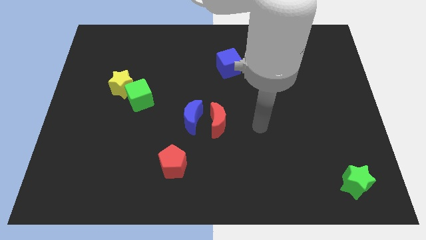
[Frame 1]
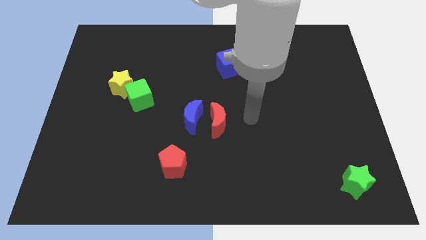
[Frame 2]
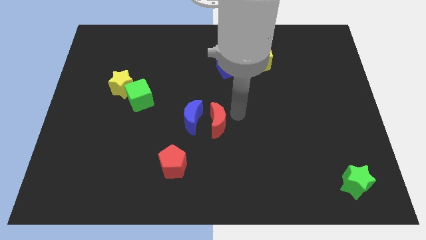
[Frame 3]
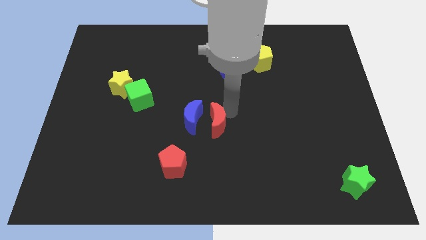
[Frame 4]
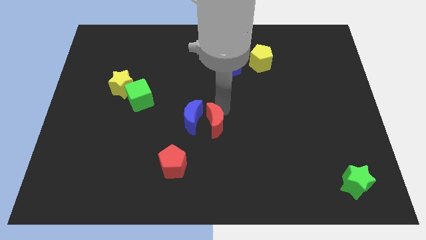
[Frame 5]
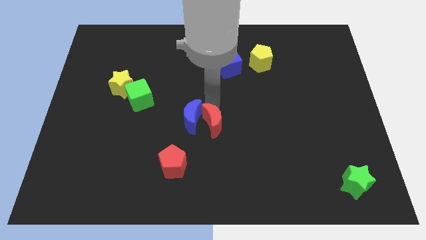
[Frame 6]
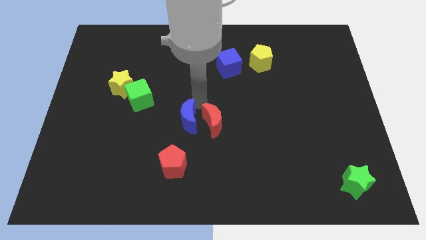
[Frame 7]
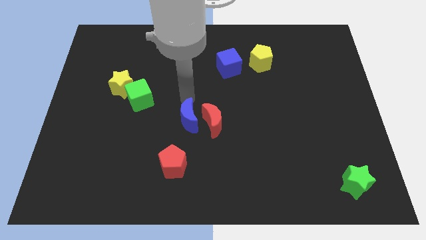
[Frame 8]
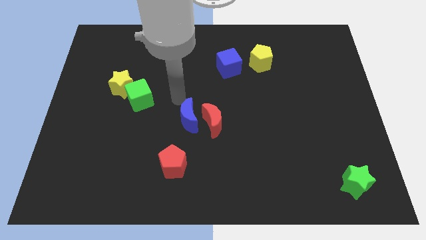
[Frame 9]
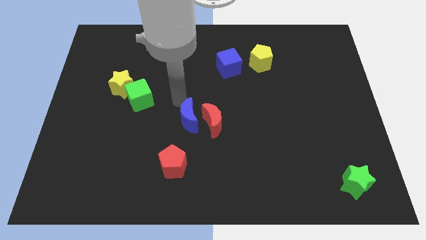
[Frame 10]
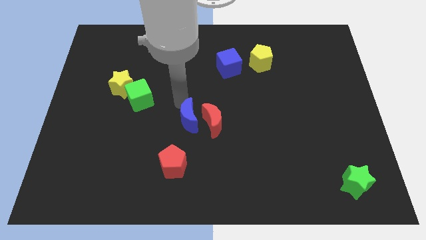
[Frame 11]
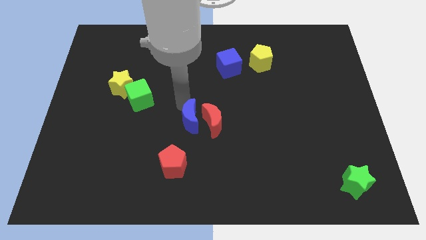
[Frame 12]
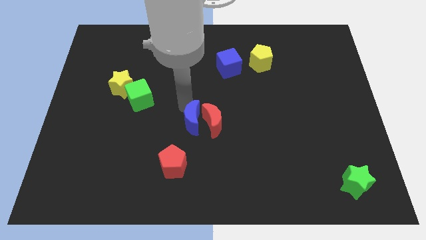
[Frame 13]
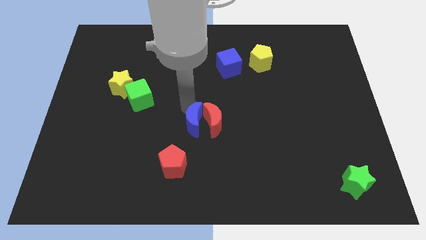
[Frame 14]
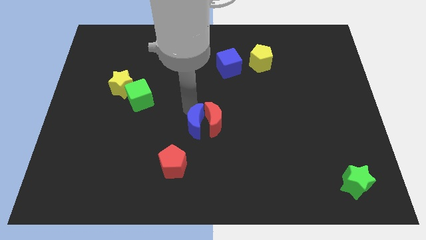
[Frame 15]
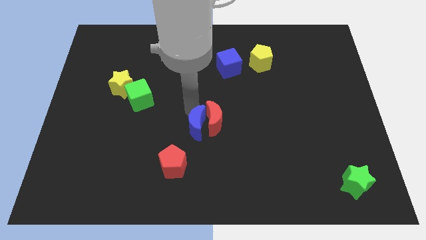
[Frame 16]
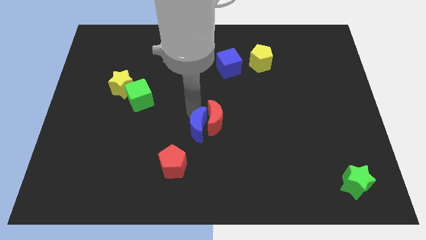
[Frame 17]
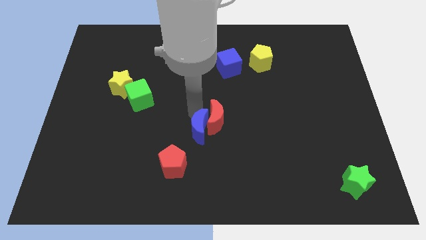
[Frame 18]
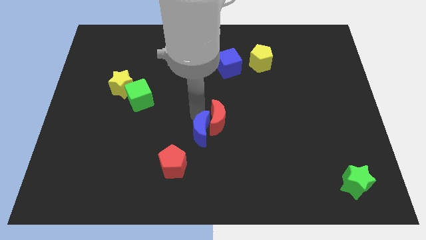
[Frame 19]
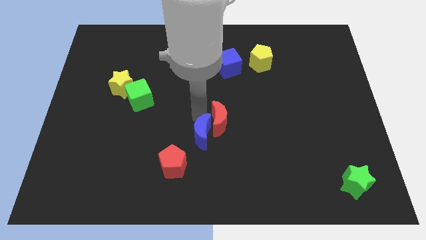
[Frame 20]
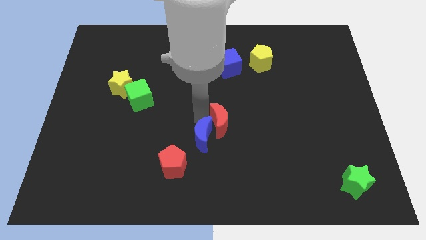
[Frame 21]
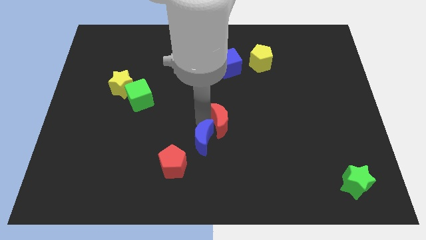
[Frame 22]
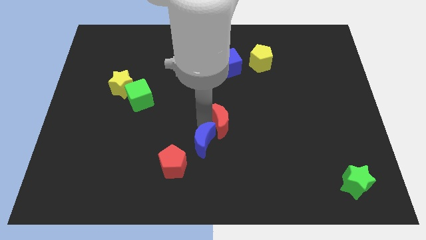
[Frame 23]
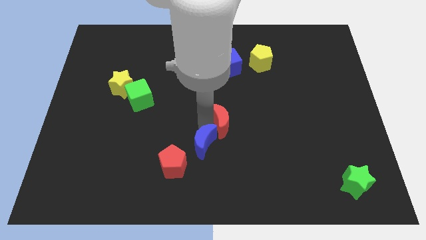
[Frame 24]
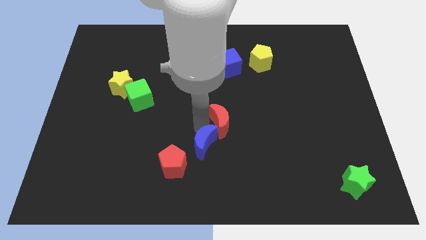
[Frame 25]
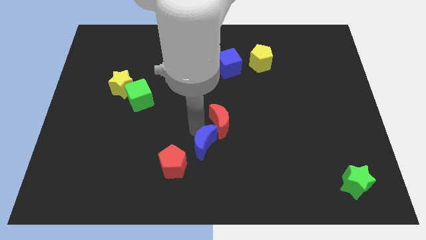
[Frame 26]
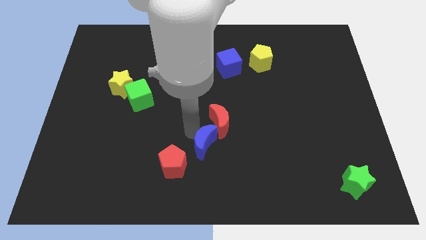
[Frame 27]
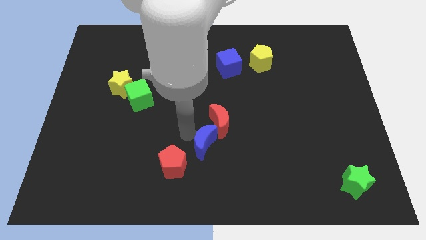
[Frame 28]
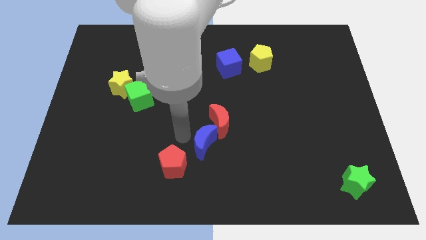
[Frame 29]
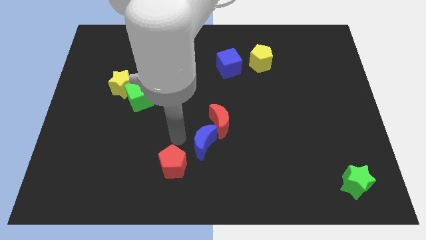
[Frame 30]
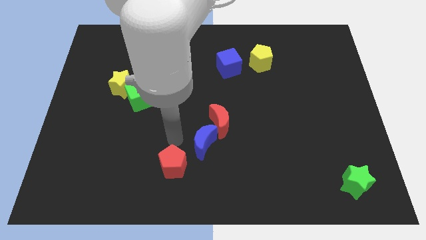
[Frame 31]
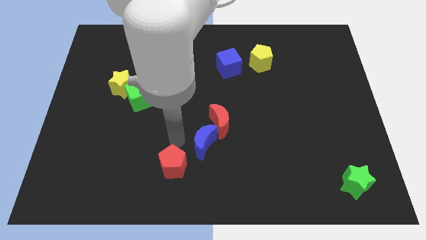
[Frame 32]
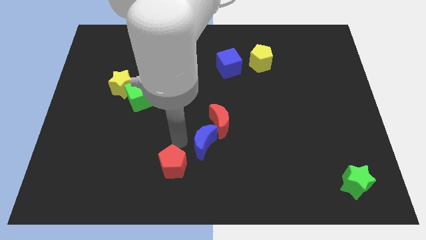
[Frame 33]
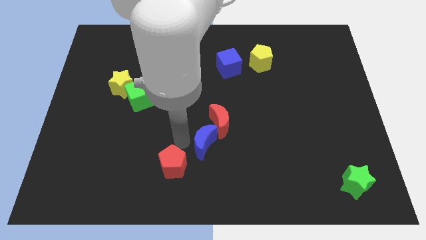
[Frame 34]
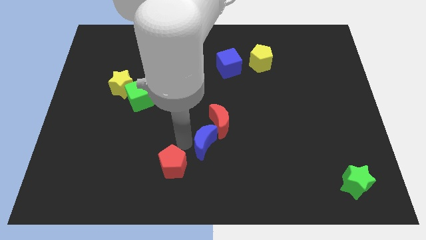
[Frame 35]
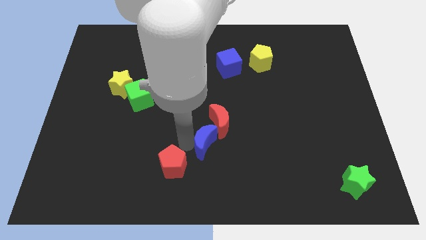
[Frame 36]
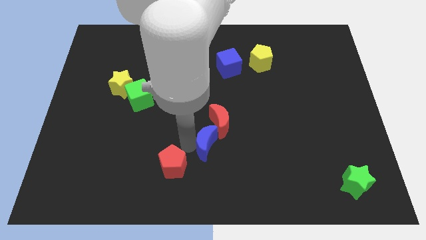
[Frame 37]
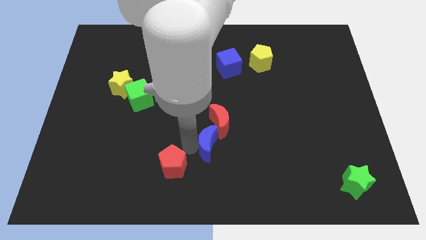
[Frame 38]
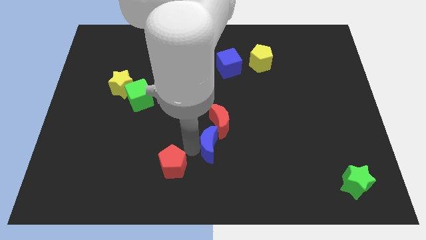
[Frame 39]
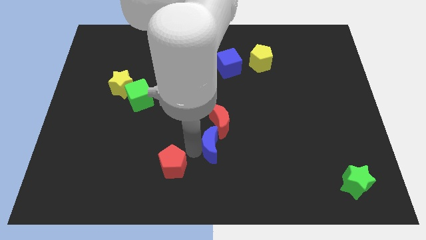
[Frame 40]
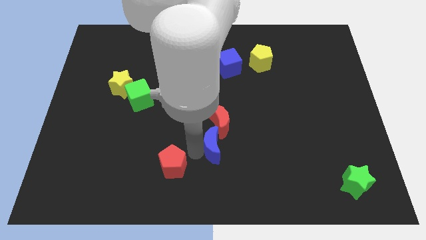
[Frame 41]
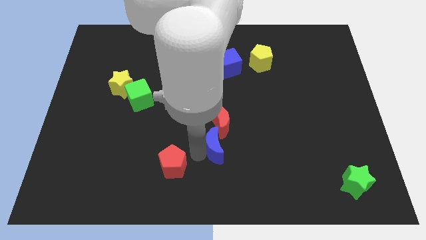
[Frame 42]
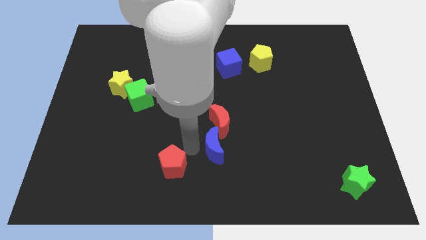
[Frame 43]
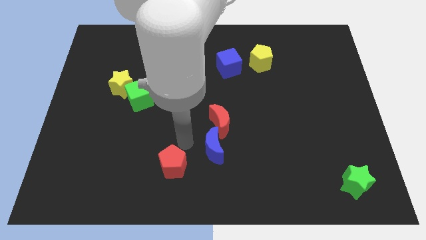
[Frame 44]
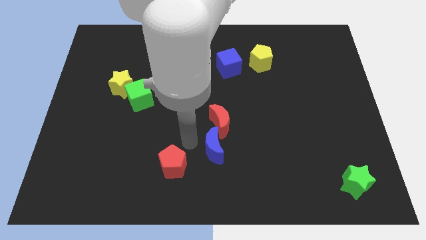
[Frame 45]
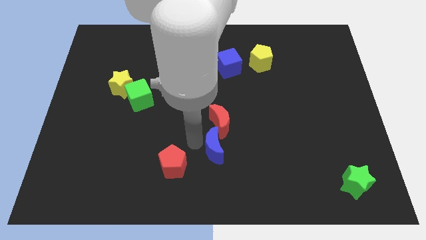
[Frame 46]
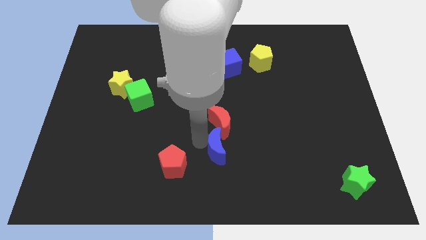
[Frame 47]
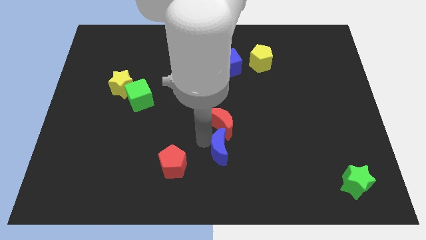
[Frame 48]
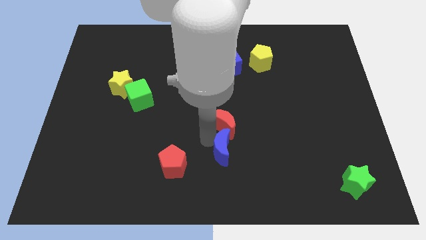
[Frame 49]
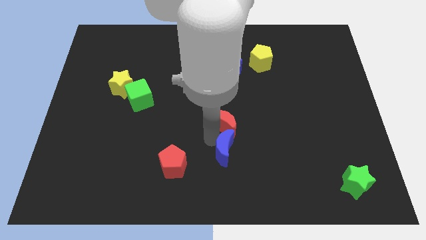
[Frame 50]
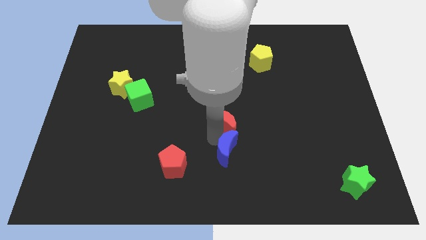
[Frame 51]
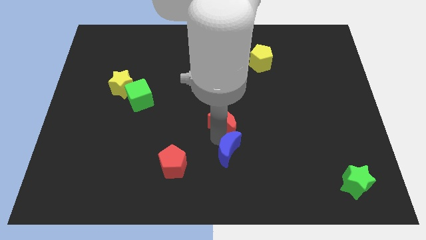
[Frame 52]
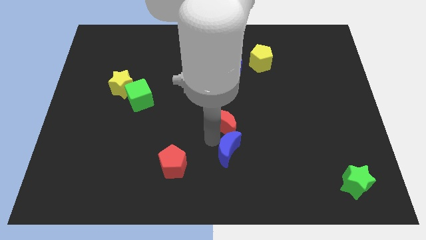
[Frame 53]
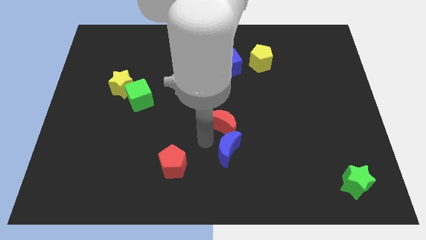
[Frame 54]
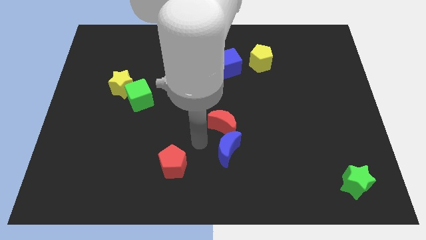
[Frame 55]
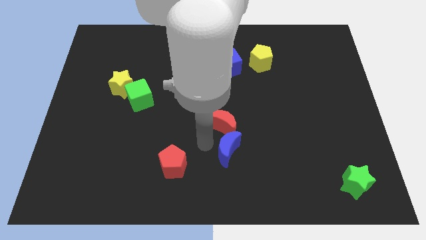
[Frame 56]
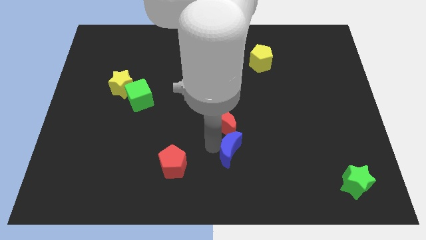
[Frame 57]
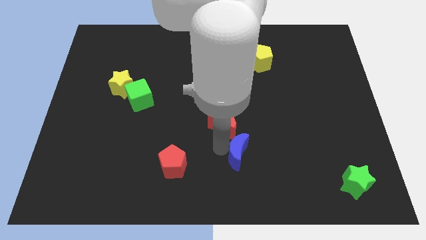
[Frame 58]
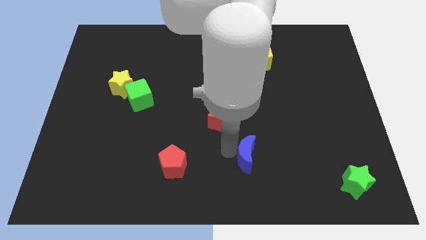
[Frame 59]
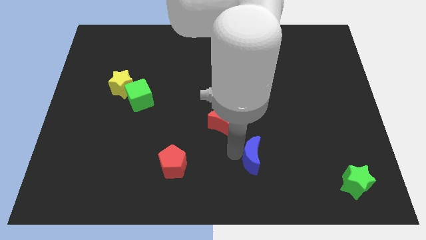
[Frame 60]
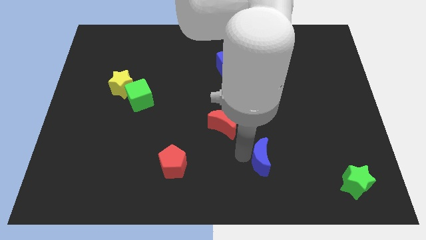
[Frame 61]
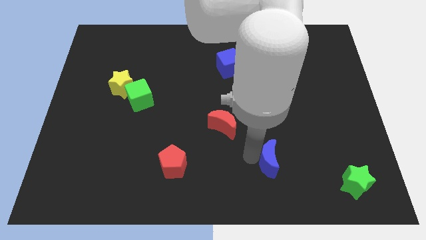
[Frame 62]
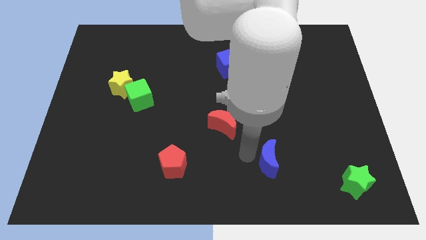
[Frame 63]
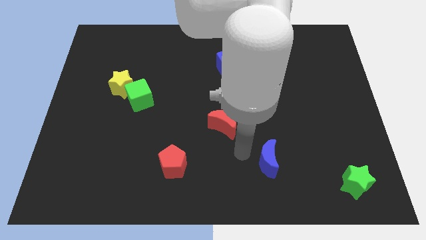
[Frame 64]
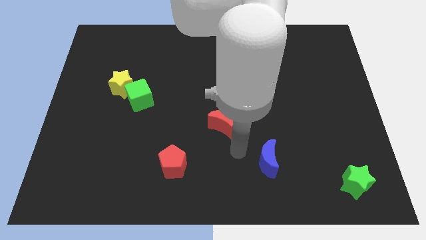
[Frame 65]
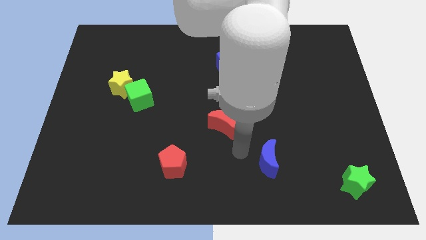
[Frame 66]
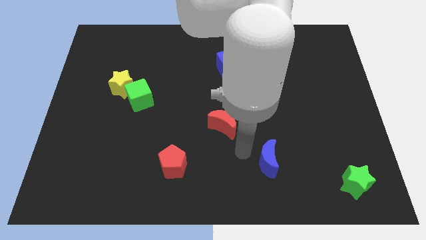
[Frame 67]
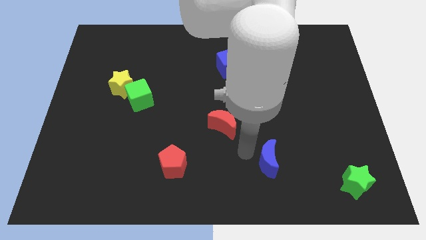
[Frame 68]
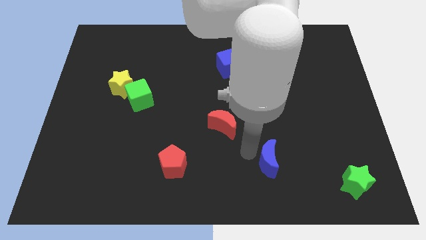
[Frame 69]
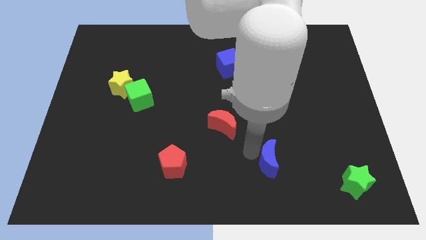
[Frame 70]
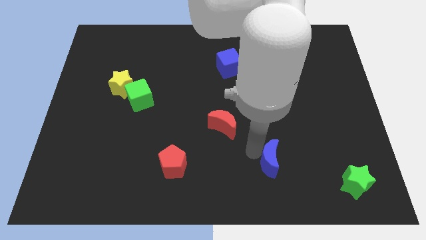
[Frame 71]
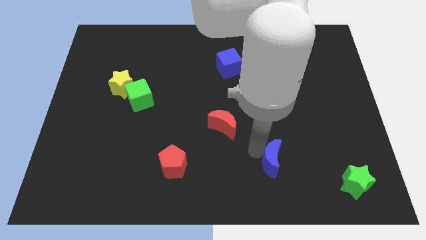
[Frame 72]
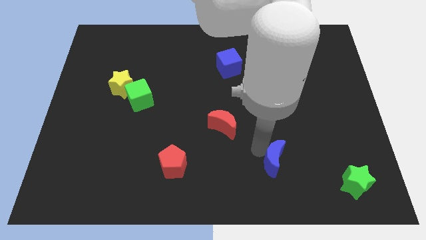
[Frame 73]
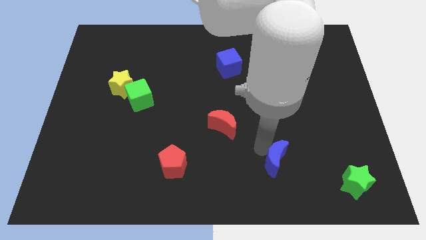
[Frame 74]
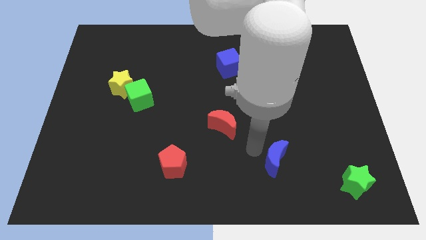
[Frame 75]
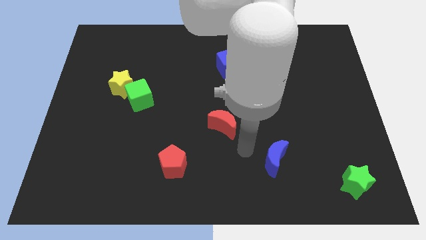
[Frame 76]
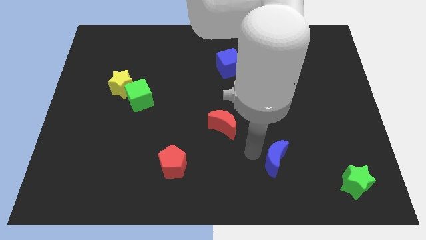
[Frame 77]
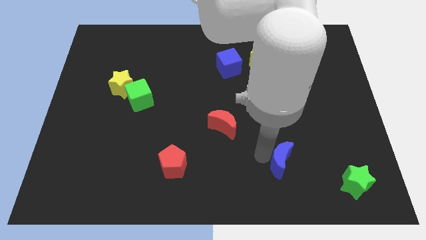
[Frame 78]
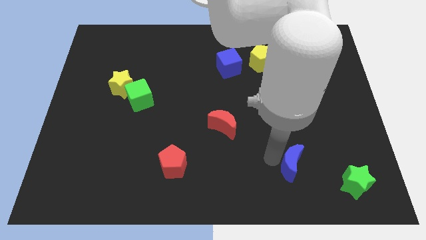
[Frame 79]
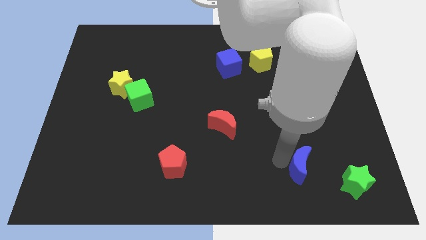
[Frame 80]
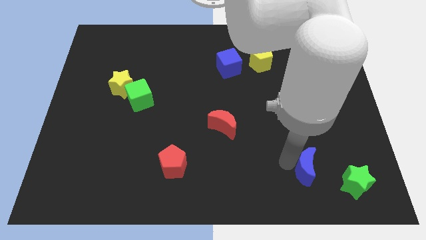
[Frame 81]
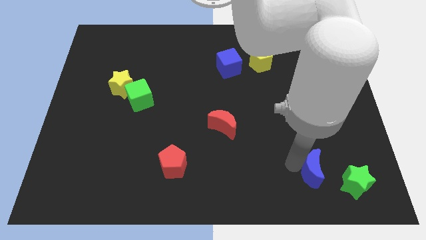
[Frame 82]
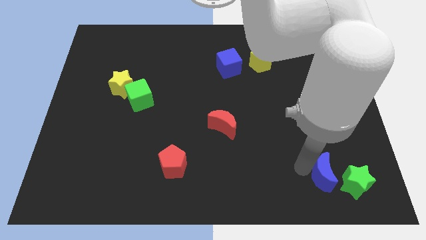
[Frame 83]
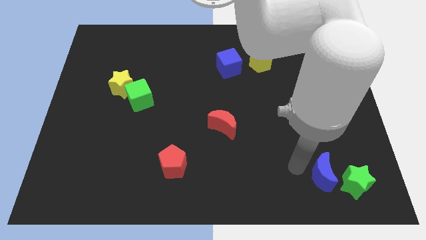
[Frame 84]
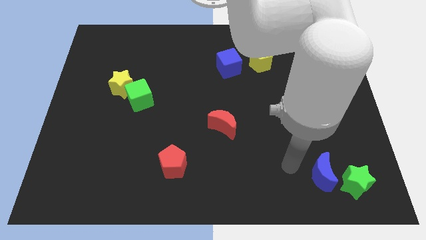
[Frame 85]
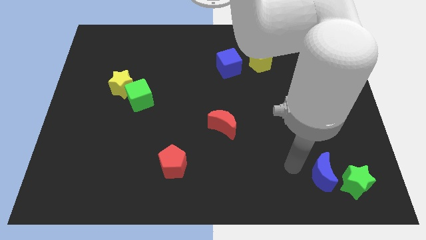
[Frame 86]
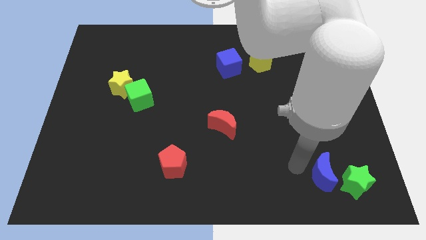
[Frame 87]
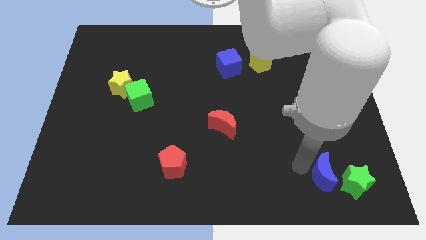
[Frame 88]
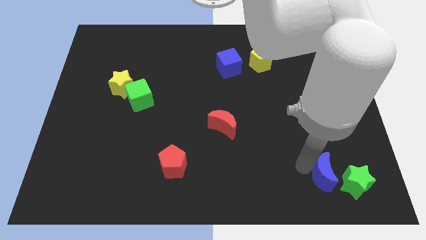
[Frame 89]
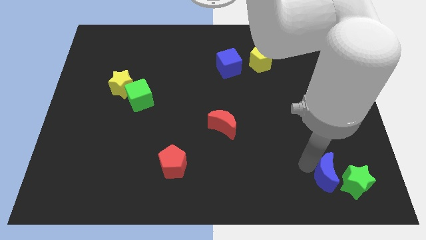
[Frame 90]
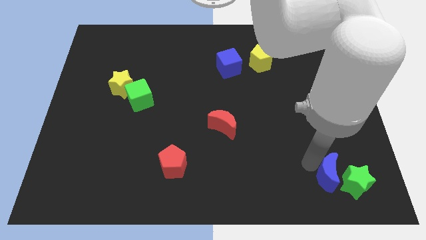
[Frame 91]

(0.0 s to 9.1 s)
move the blue moon towards the green star
